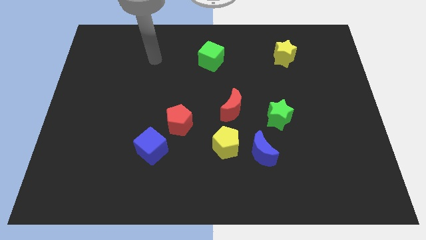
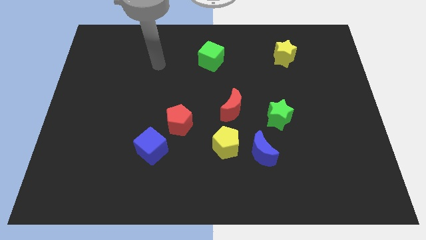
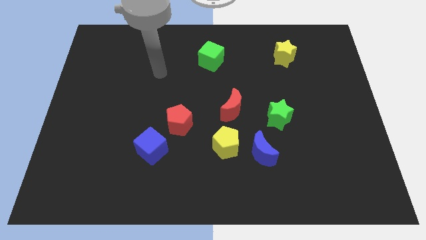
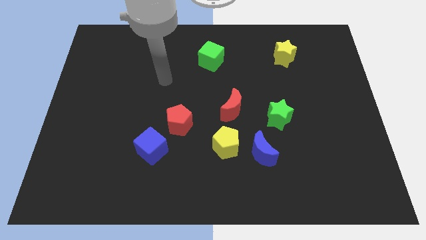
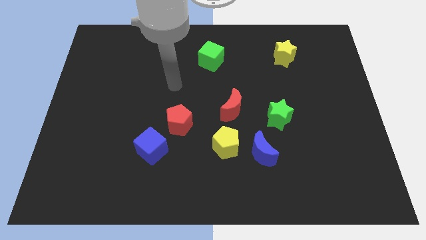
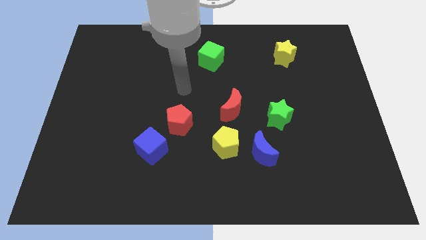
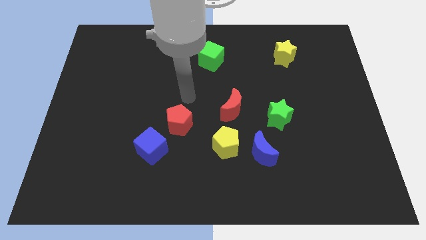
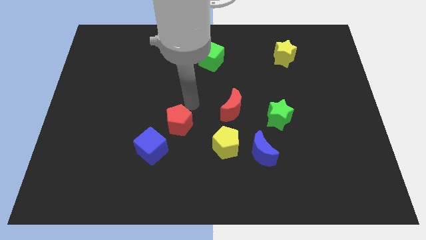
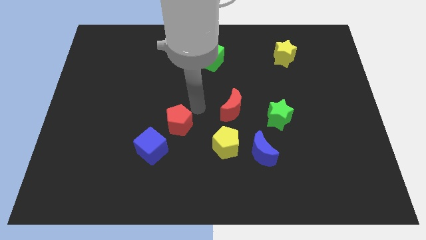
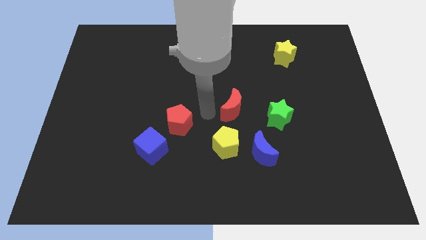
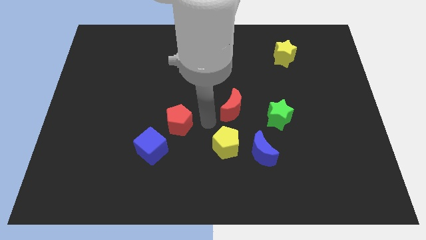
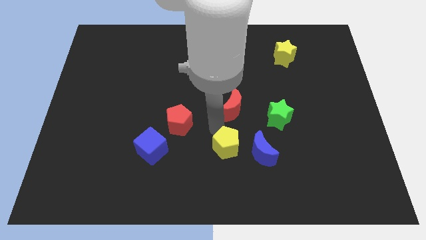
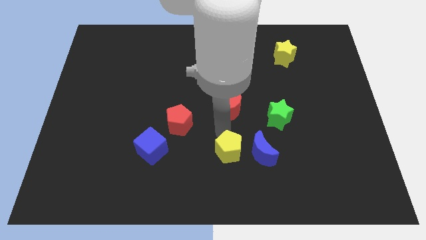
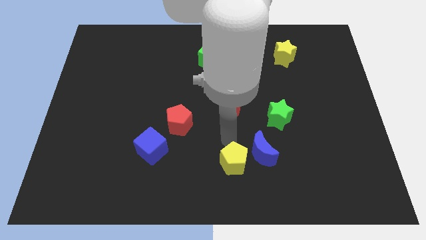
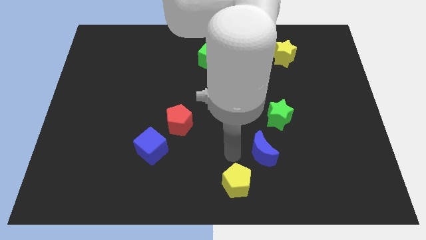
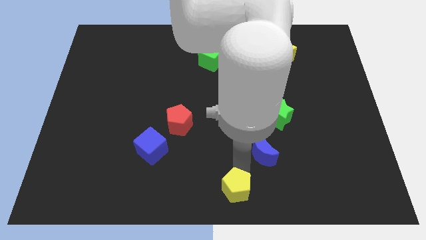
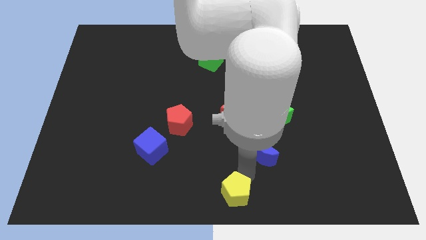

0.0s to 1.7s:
separate the blue moon from the yellow pentagon

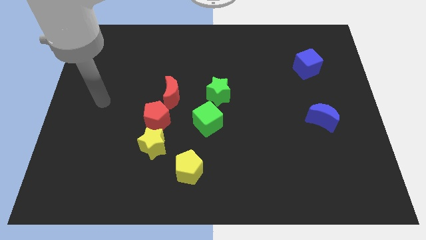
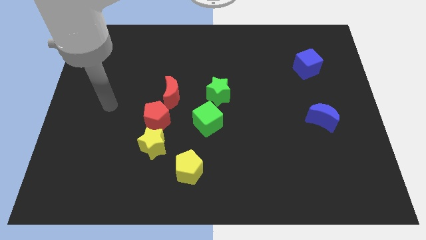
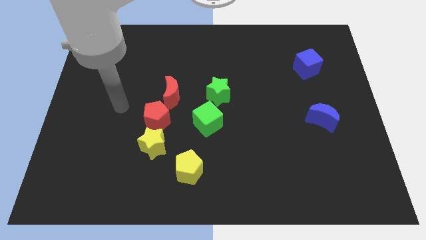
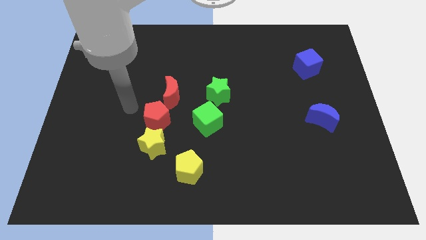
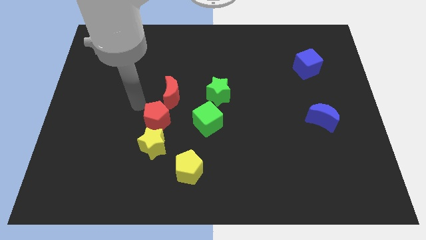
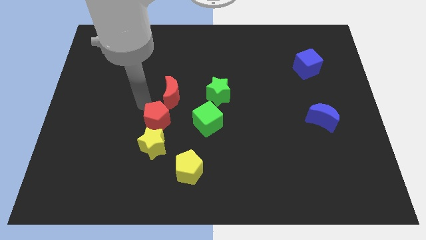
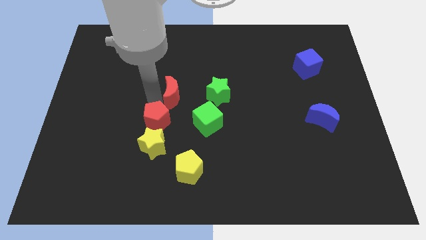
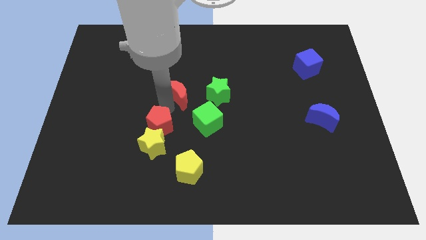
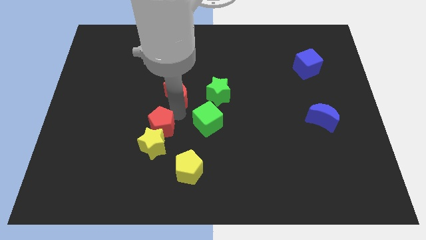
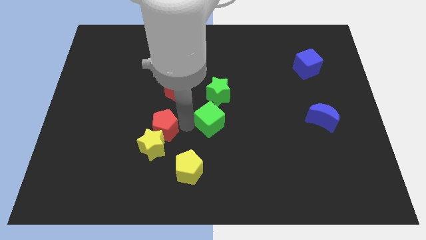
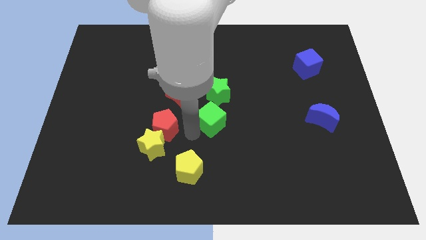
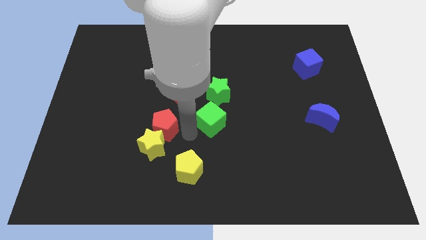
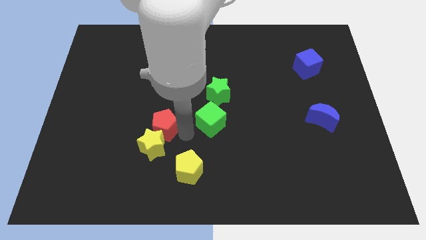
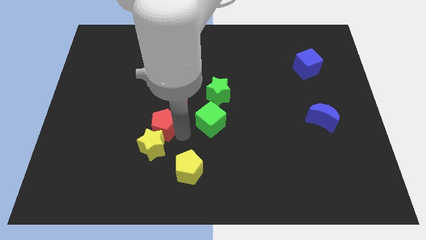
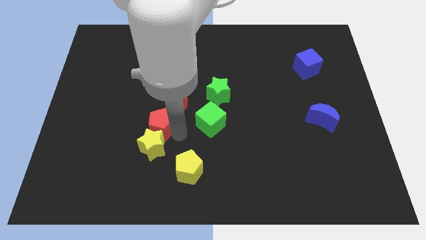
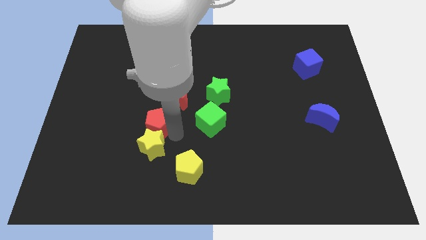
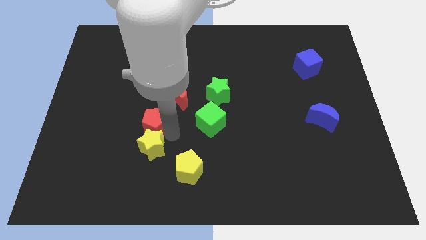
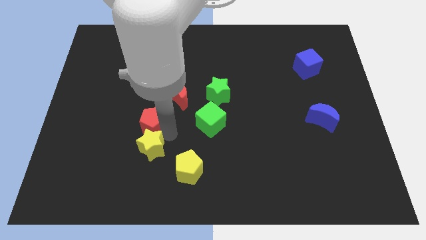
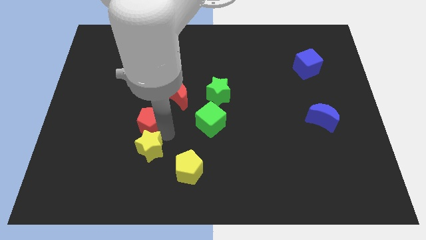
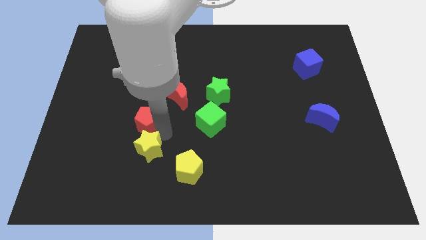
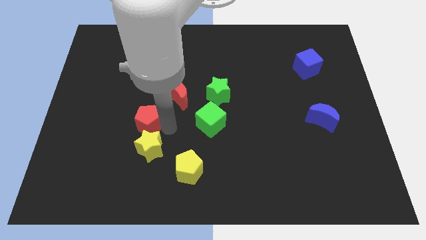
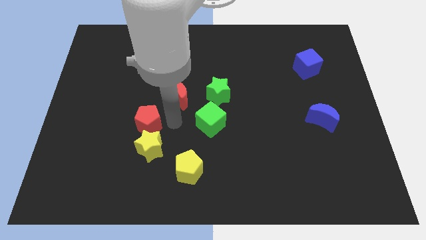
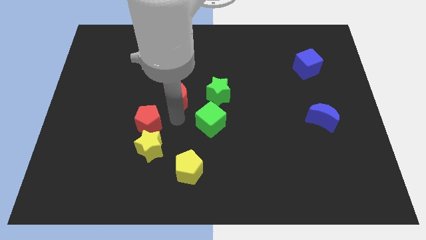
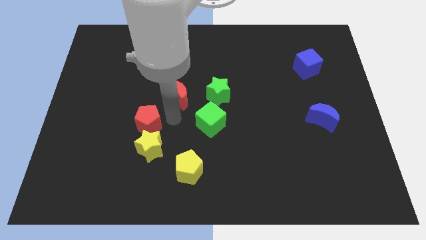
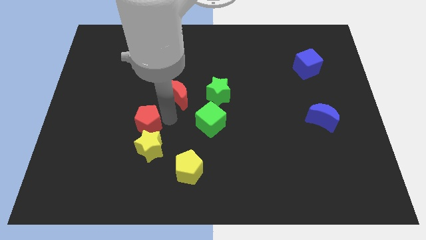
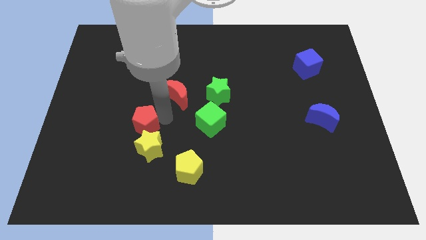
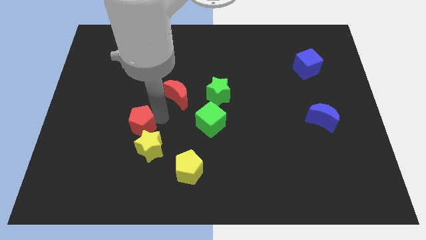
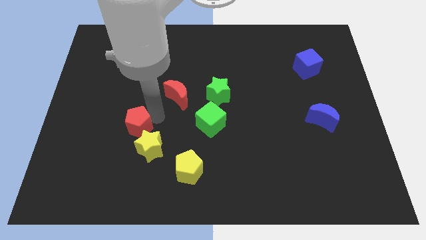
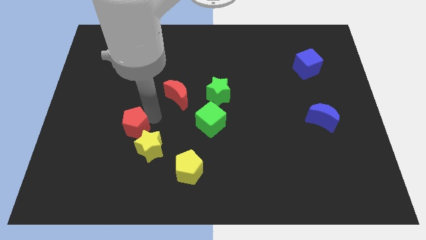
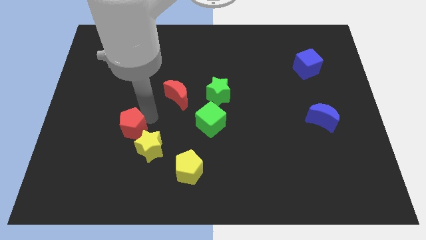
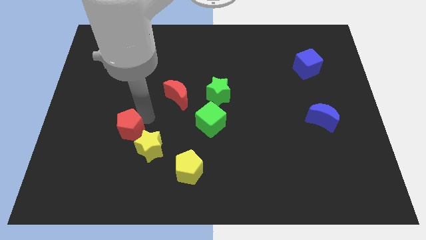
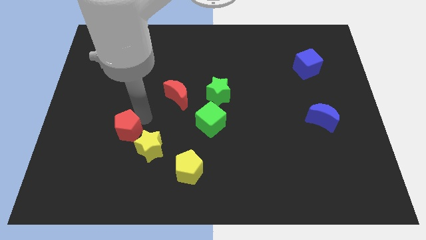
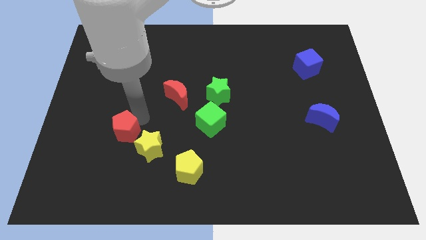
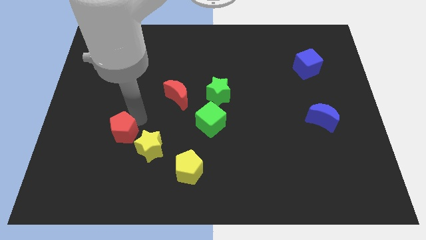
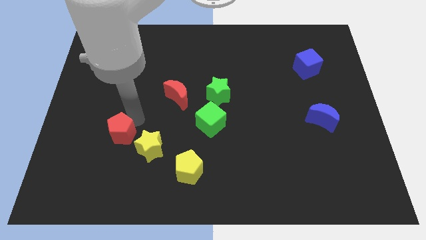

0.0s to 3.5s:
pull the red pentagon apart from the yellow star and red moon

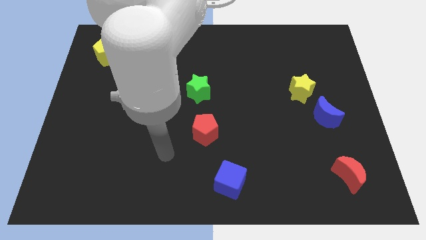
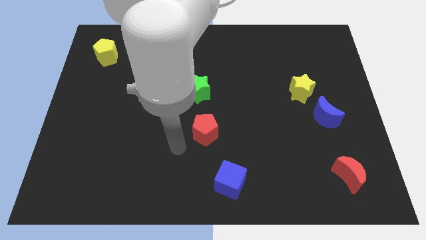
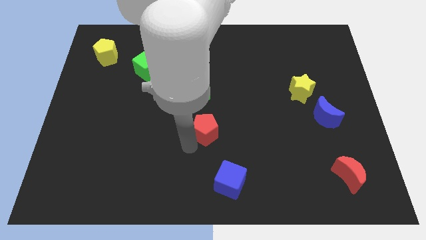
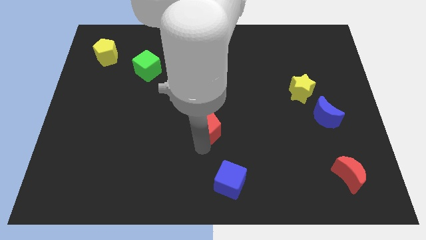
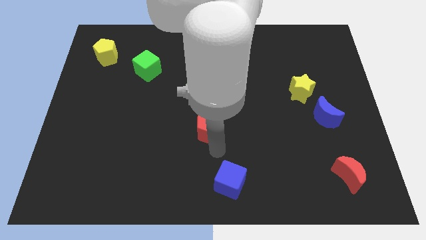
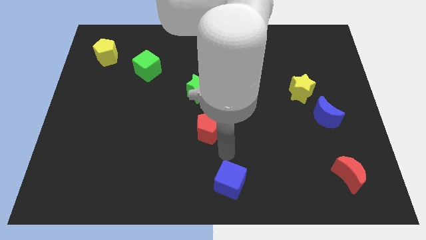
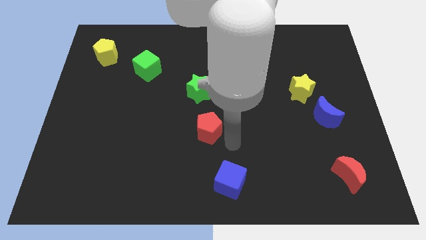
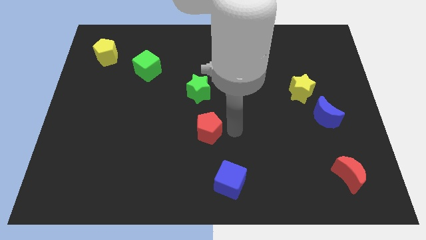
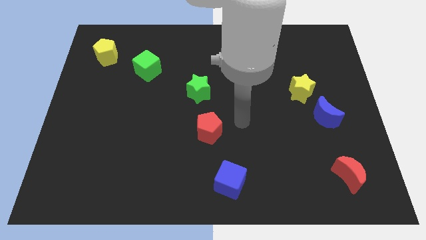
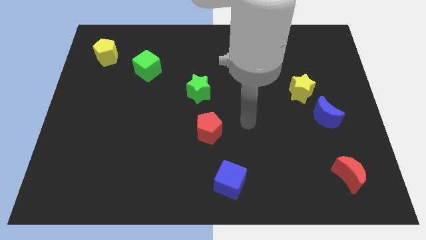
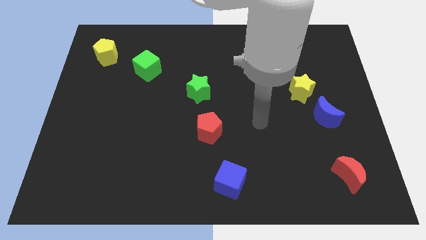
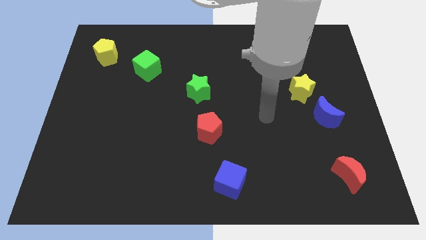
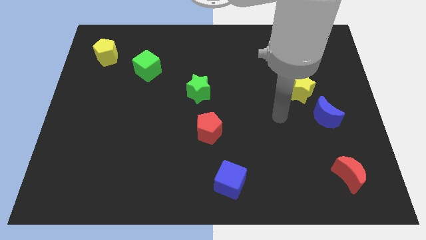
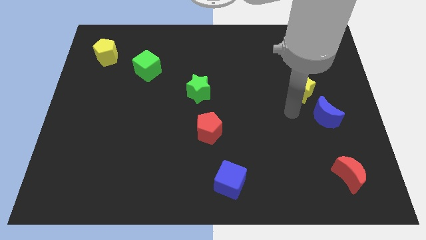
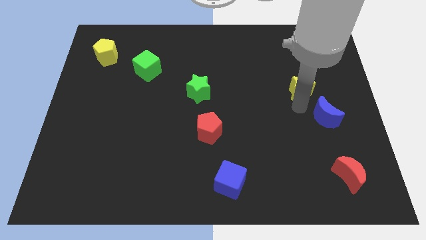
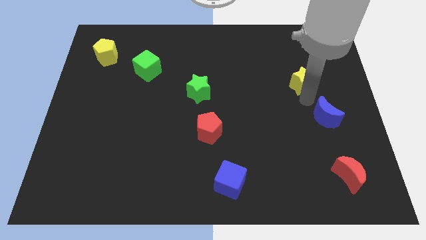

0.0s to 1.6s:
separate the blue moon from the yellow star

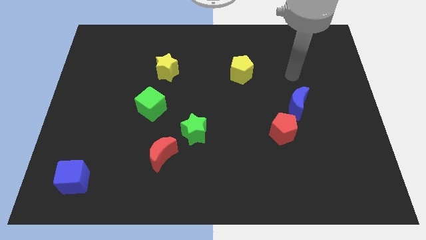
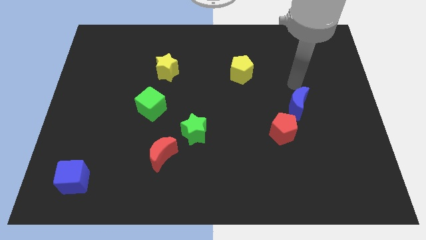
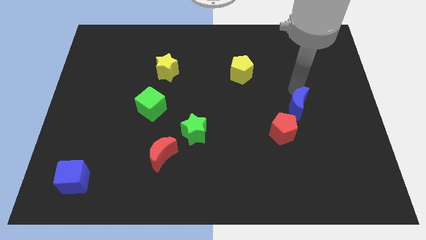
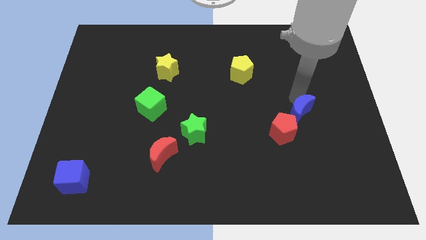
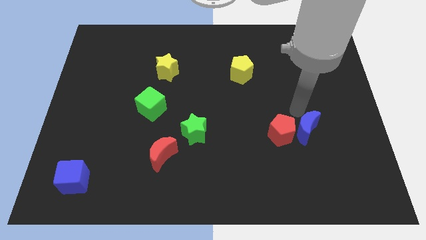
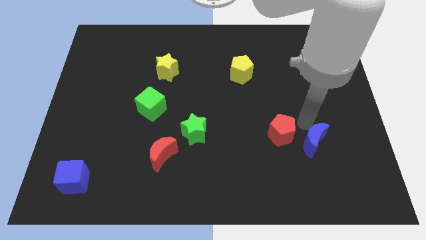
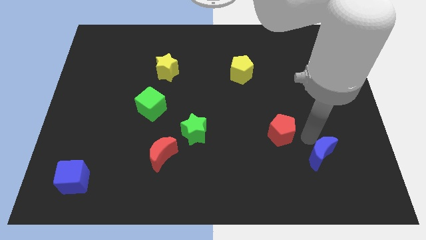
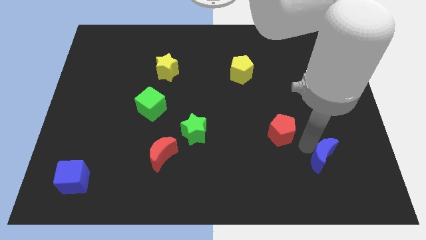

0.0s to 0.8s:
move the red pentagon away from the blue moon

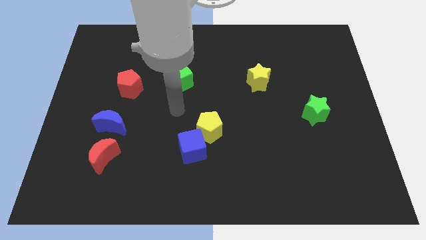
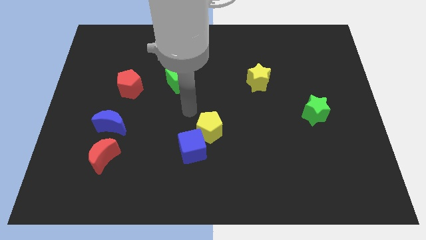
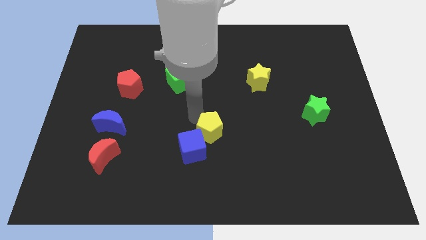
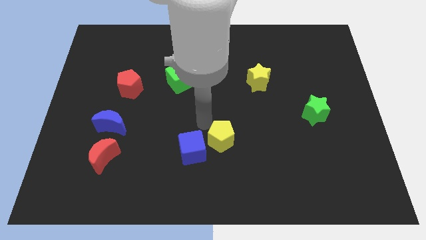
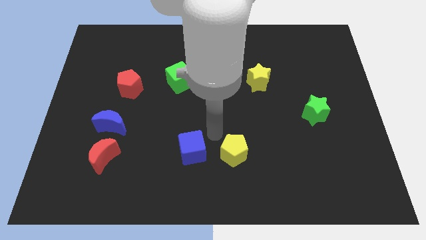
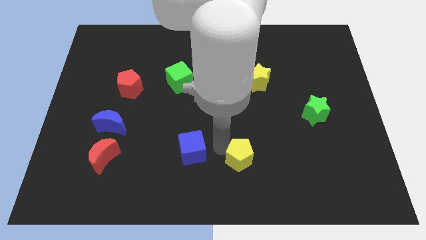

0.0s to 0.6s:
pull the blue cube apart from the yellow pentagon

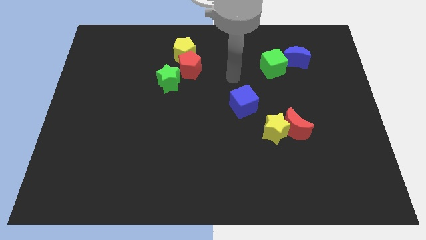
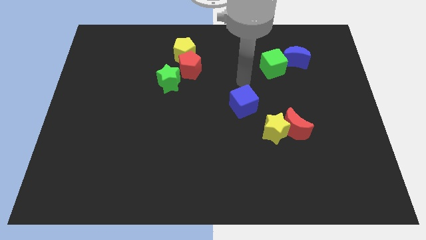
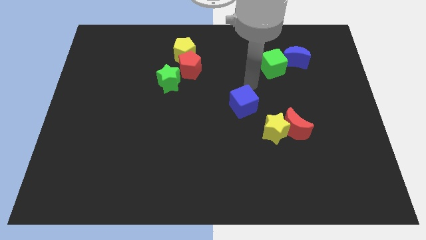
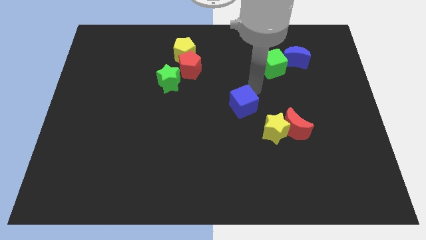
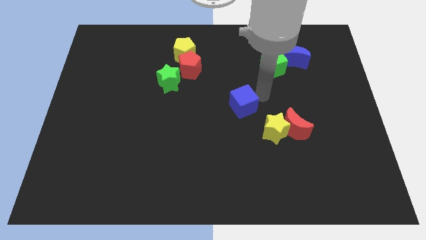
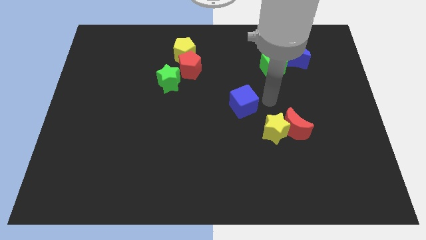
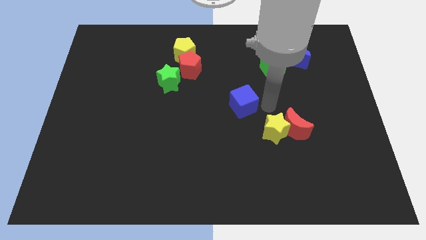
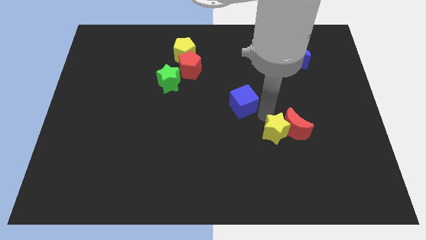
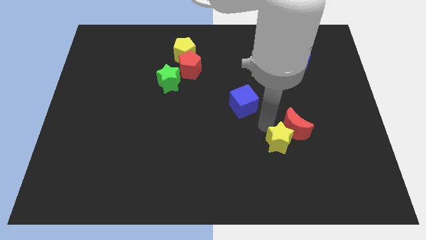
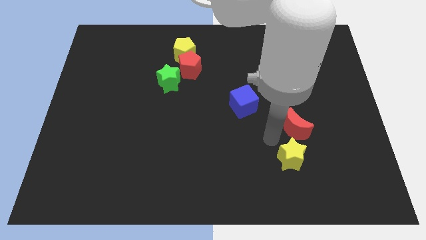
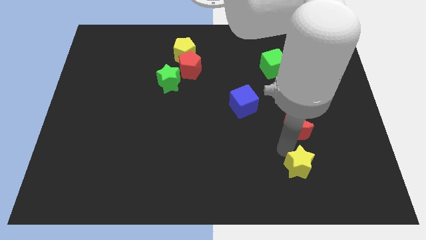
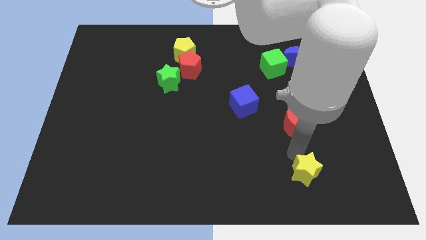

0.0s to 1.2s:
move the red moon away from the yellow star

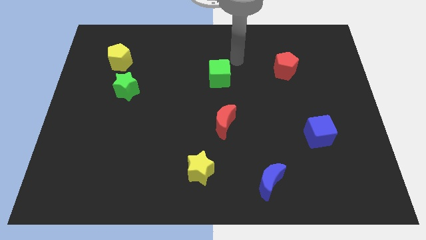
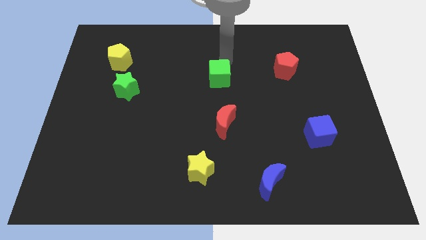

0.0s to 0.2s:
separate the green star from the yellow pentagon
